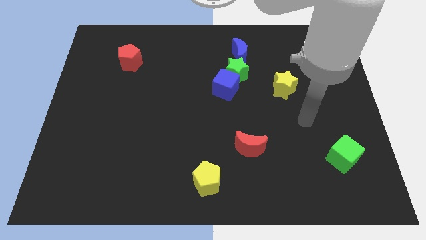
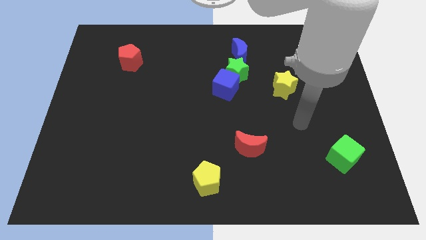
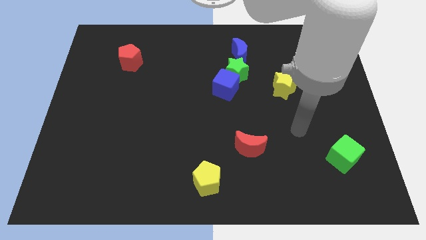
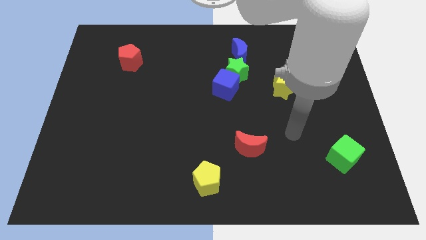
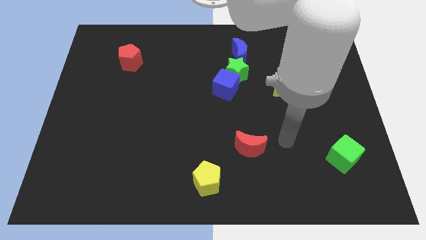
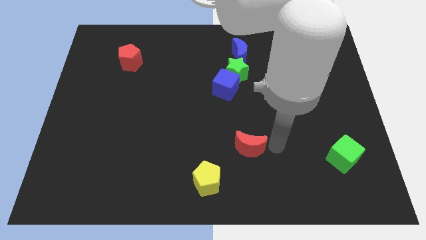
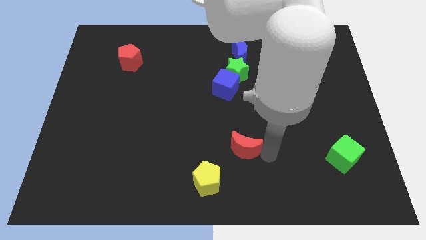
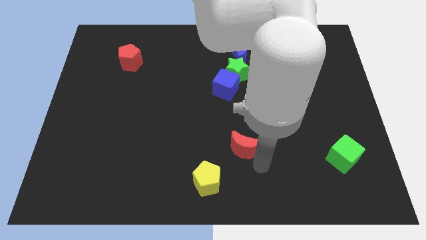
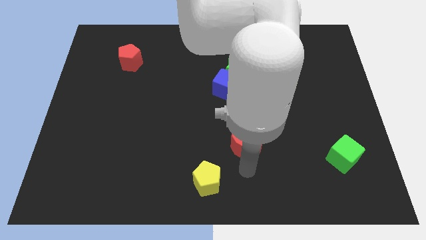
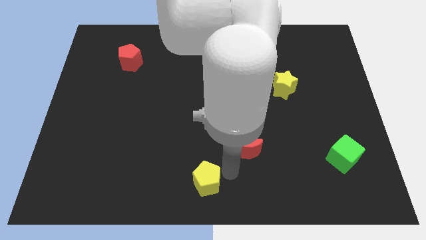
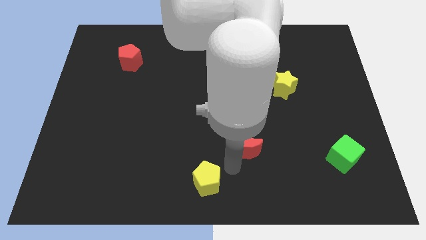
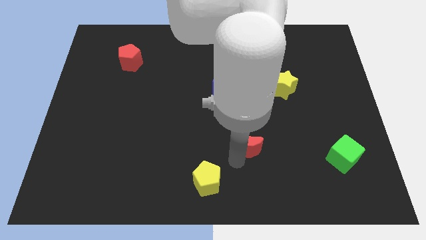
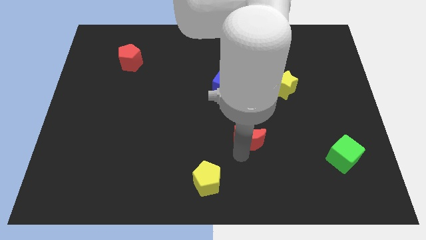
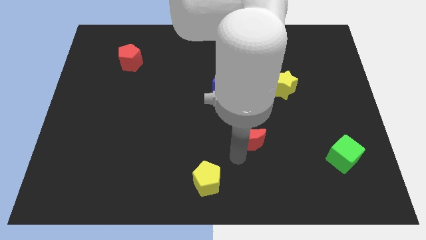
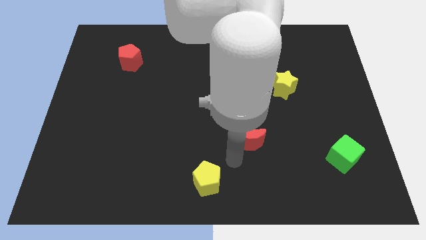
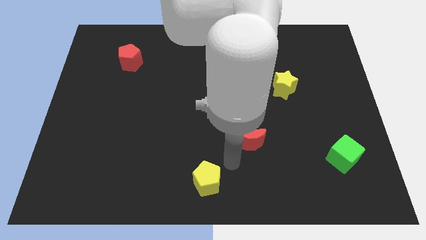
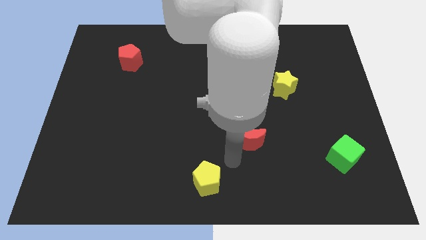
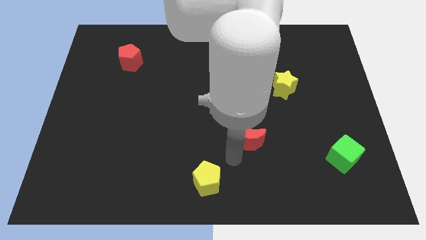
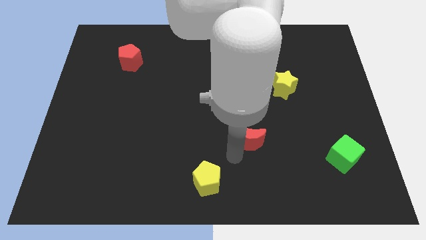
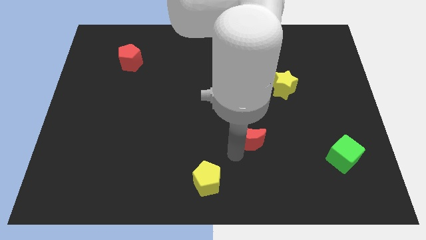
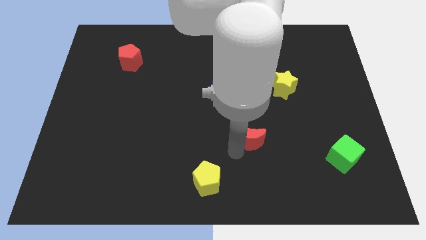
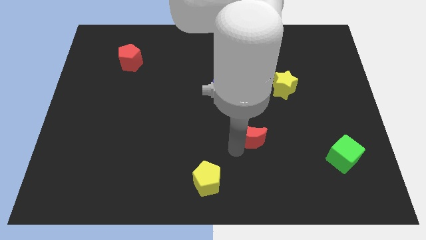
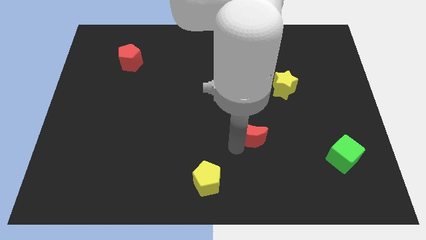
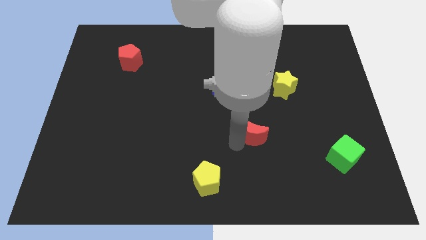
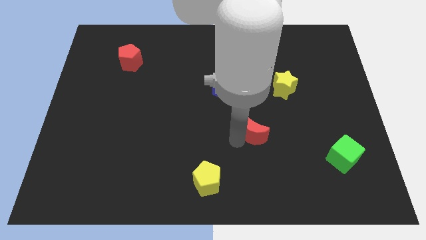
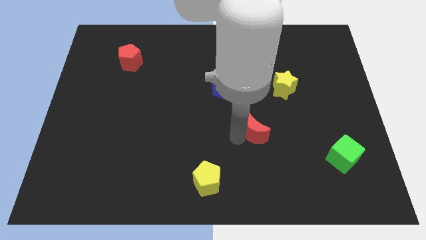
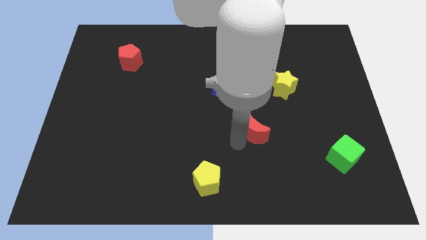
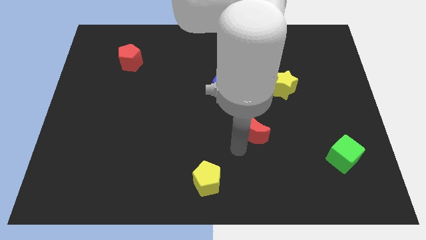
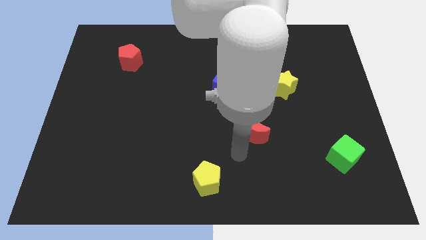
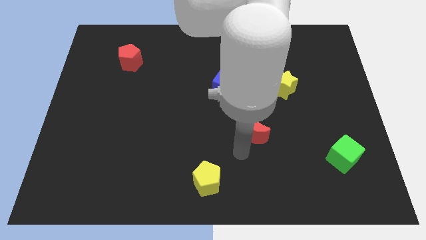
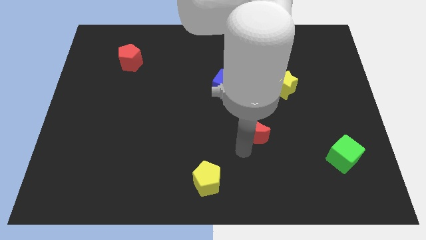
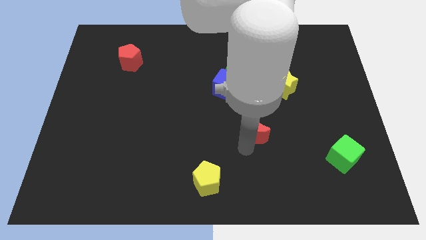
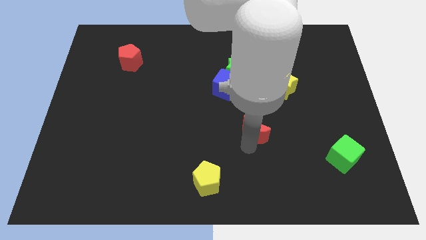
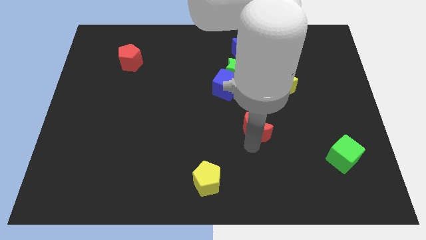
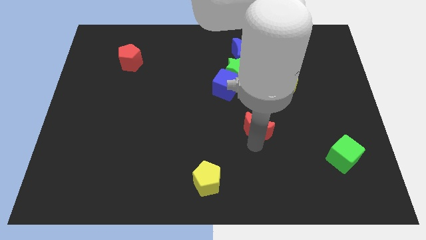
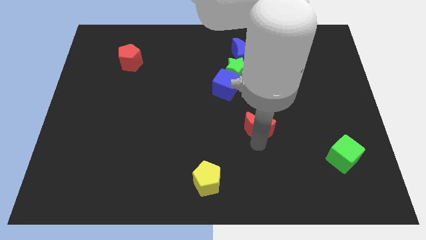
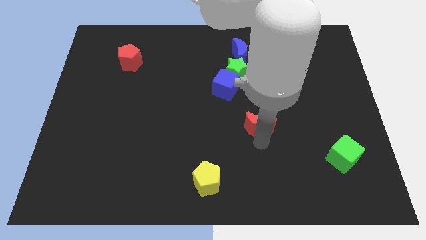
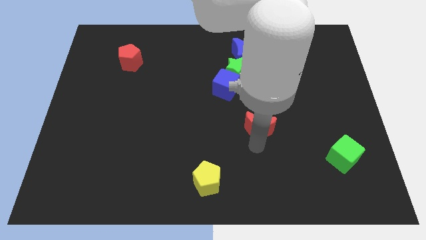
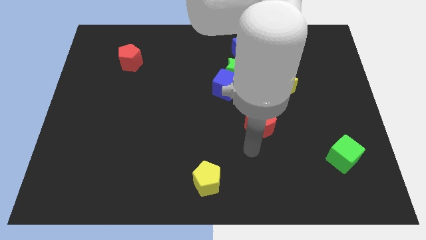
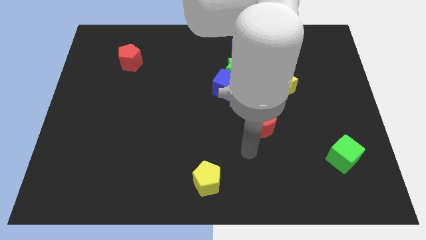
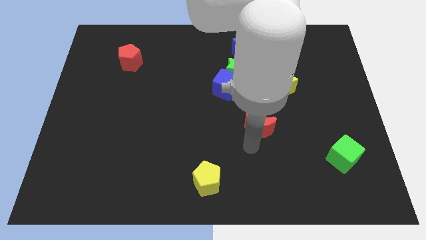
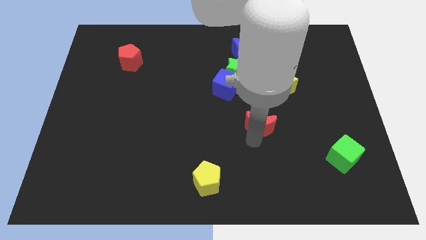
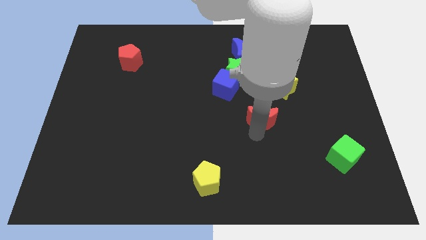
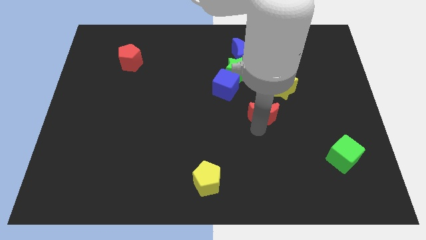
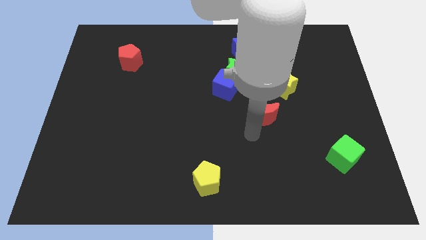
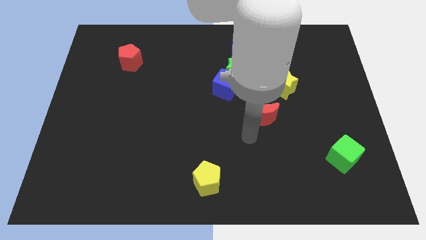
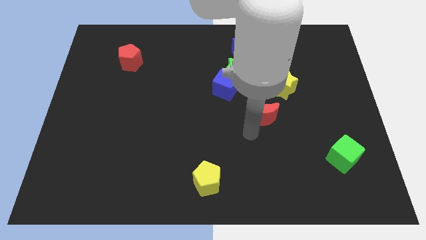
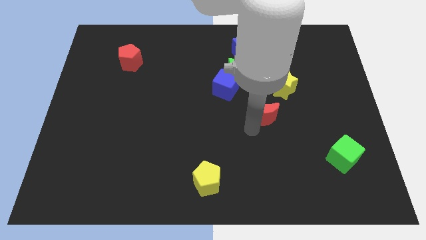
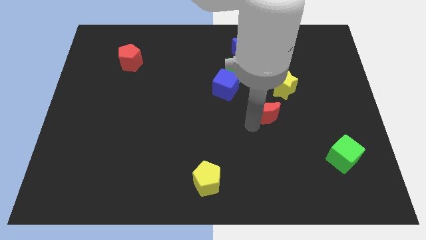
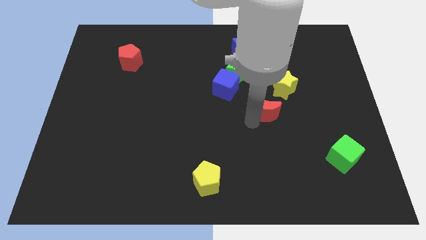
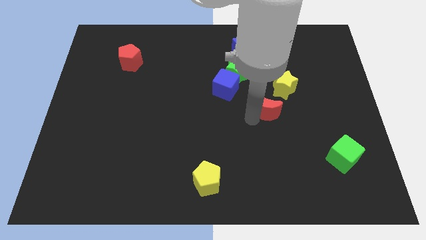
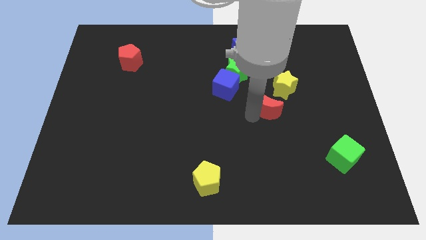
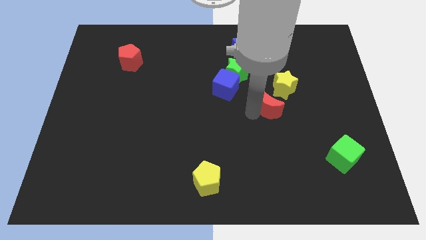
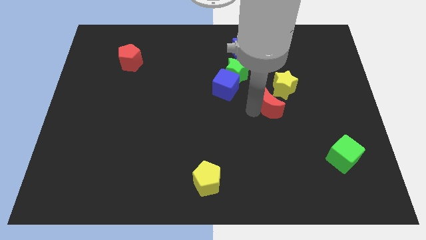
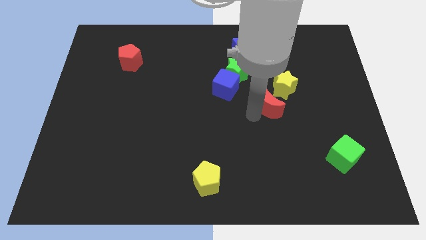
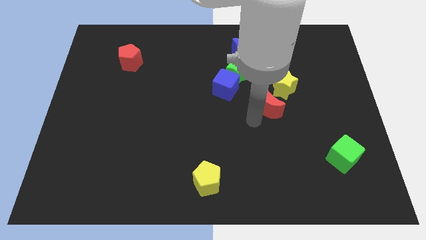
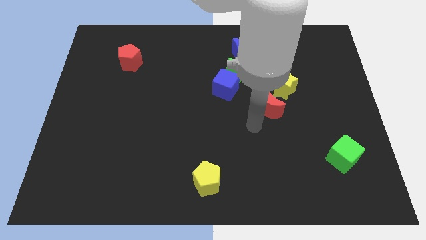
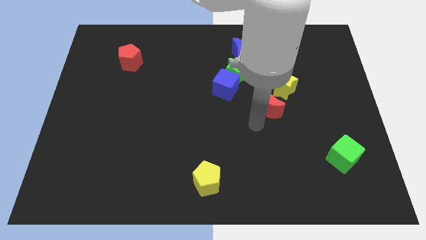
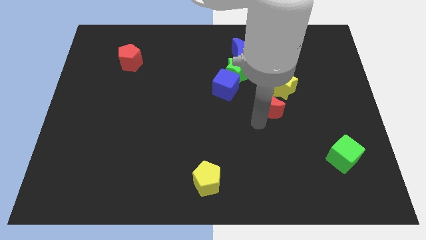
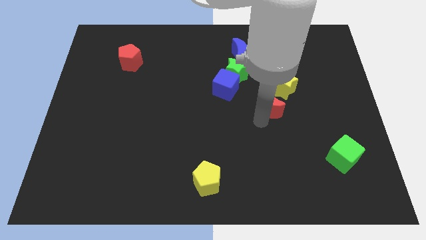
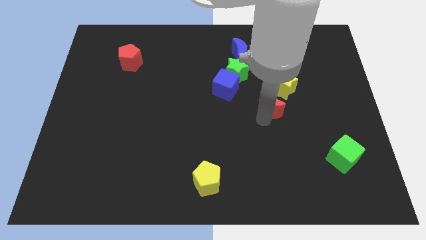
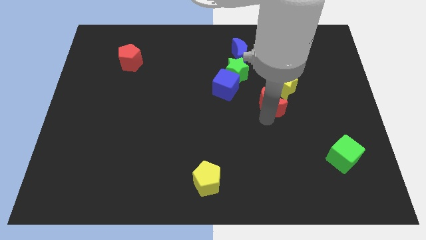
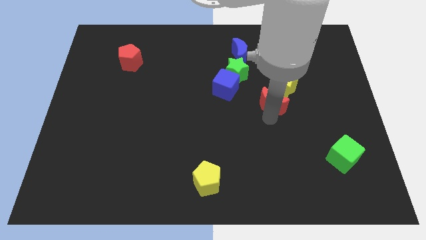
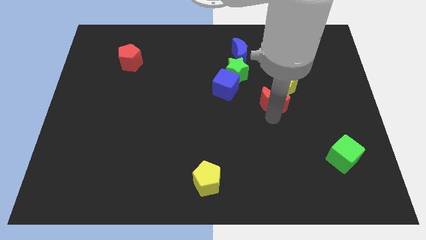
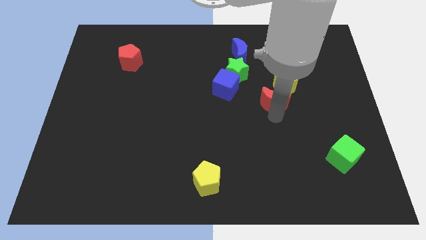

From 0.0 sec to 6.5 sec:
move the red moon towards the yellow star
